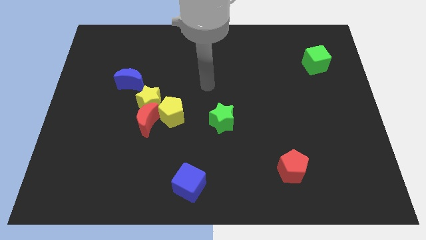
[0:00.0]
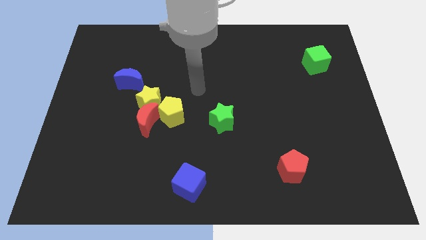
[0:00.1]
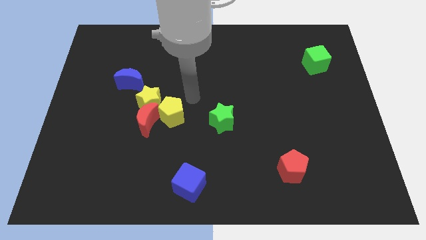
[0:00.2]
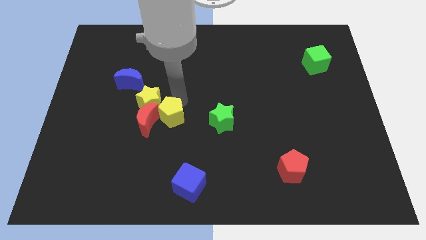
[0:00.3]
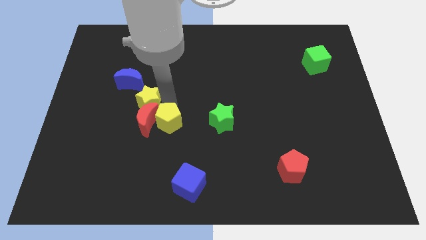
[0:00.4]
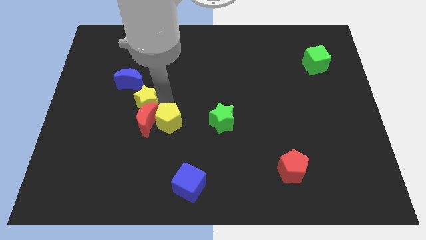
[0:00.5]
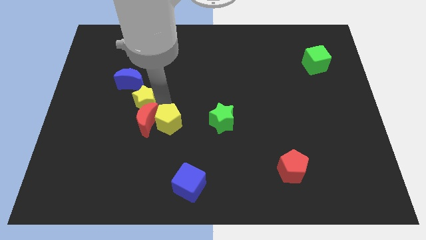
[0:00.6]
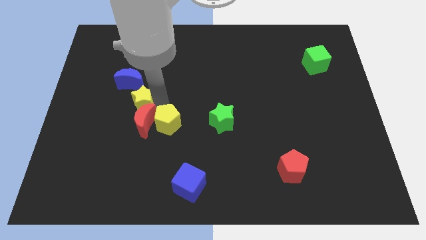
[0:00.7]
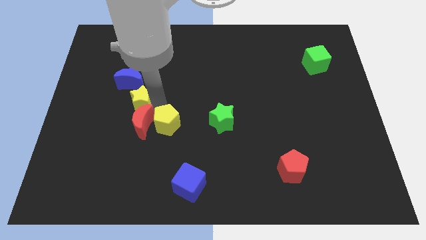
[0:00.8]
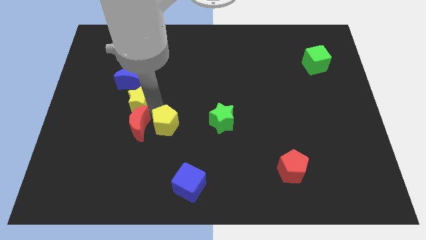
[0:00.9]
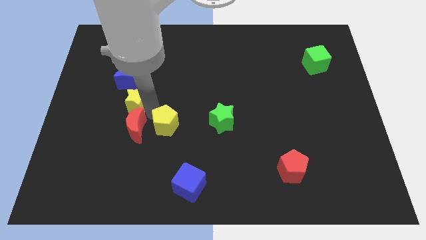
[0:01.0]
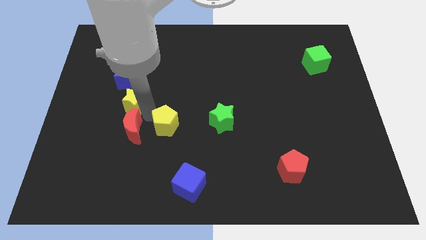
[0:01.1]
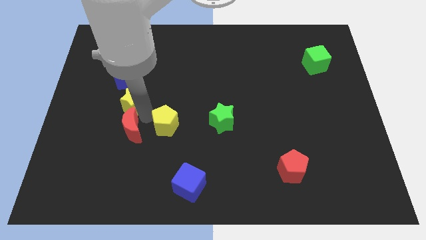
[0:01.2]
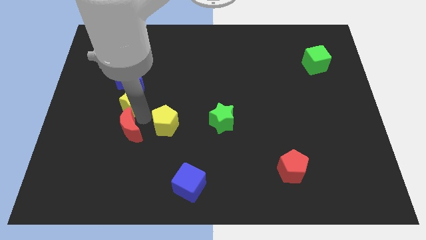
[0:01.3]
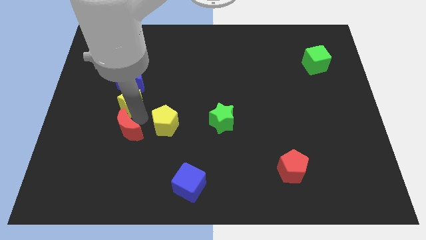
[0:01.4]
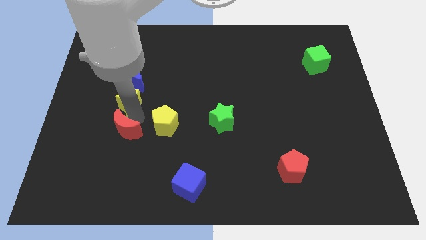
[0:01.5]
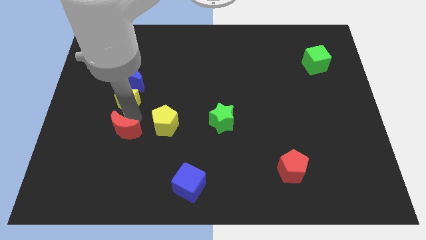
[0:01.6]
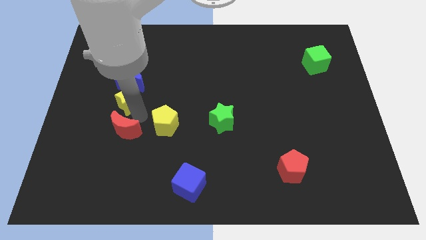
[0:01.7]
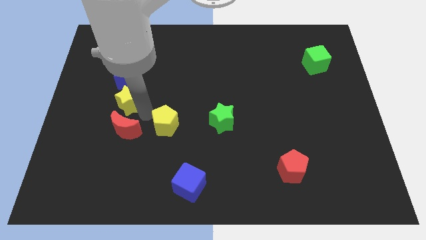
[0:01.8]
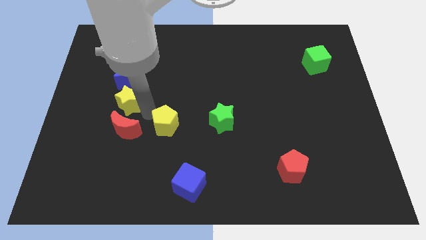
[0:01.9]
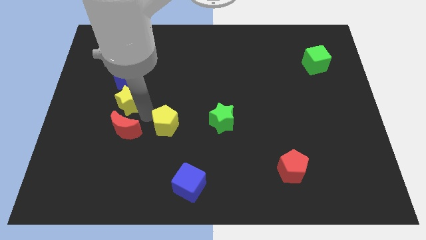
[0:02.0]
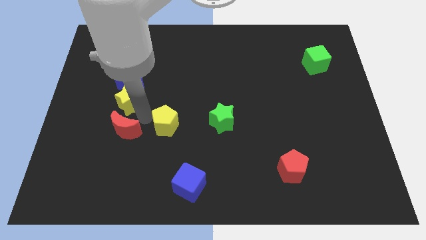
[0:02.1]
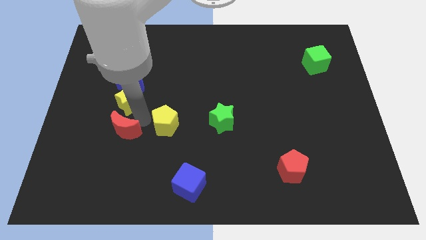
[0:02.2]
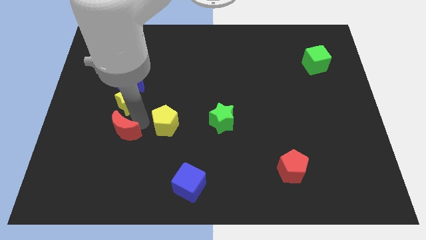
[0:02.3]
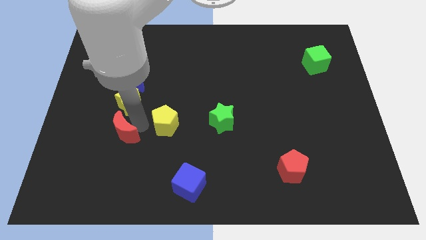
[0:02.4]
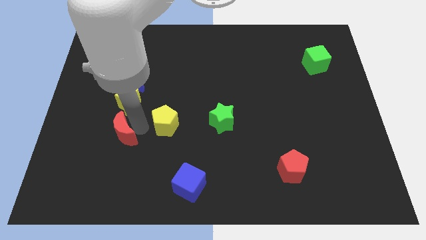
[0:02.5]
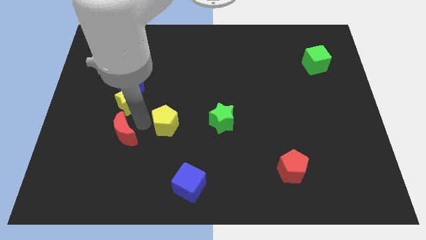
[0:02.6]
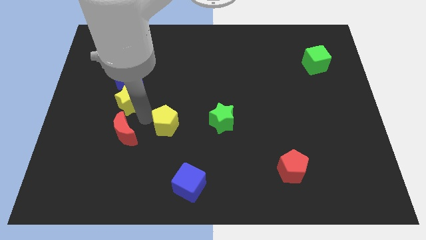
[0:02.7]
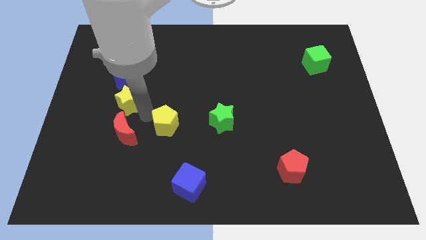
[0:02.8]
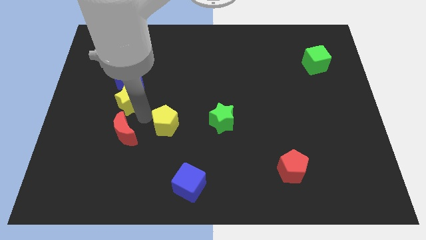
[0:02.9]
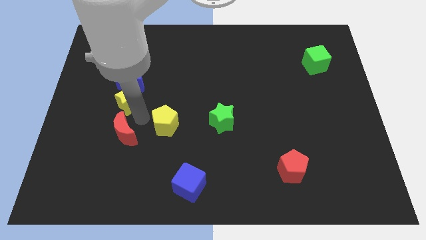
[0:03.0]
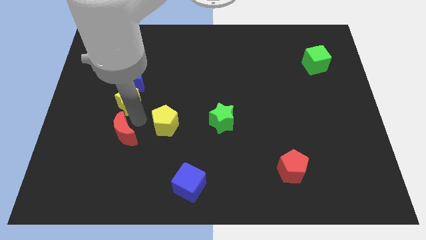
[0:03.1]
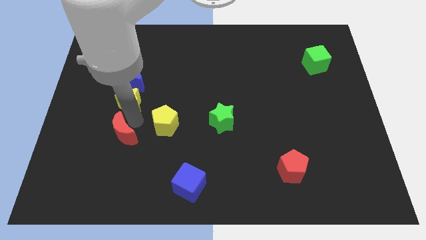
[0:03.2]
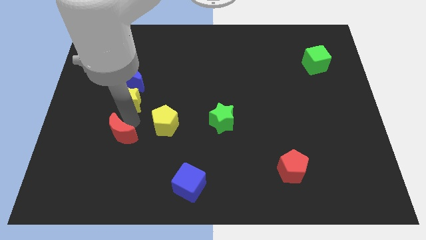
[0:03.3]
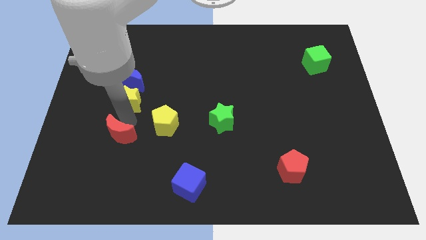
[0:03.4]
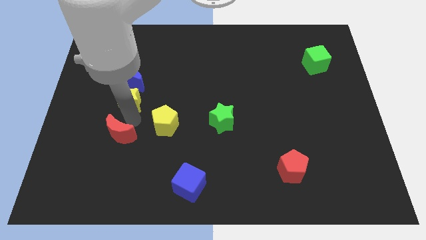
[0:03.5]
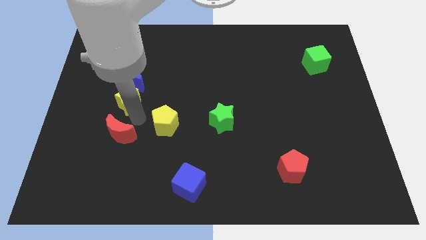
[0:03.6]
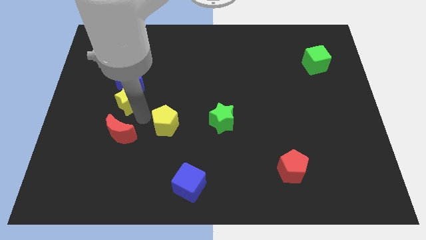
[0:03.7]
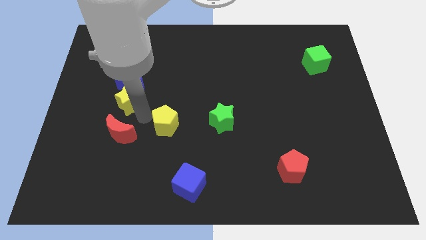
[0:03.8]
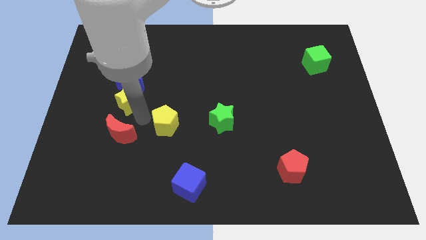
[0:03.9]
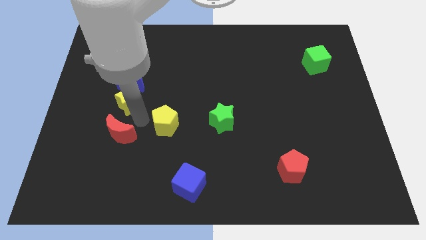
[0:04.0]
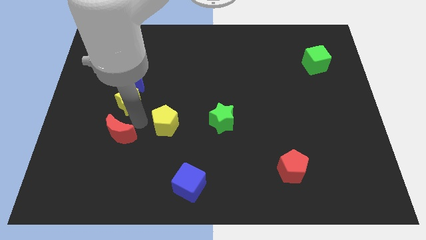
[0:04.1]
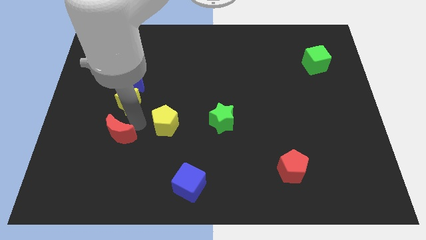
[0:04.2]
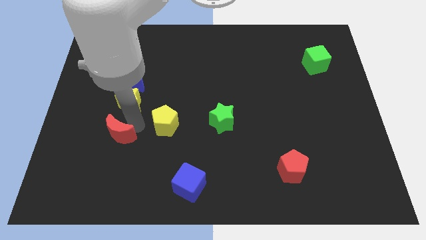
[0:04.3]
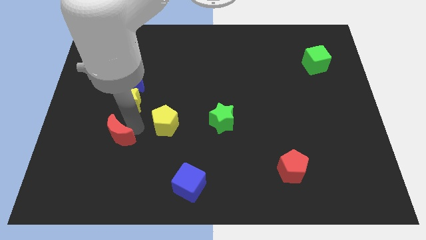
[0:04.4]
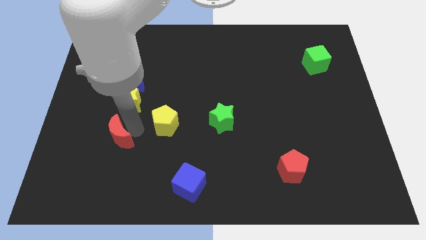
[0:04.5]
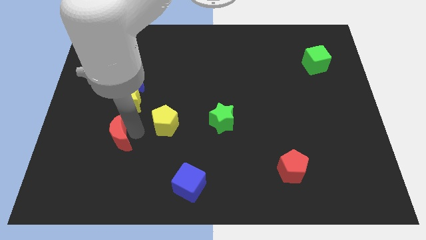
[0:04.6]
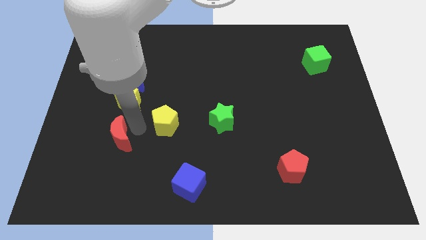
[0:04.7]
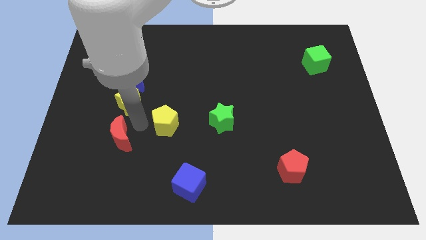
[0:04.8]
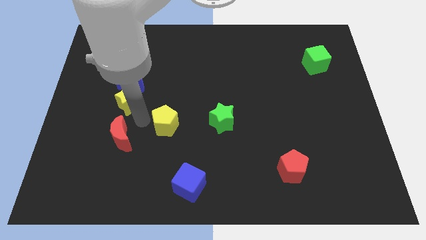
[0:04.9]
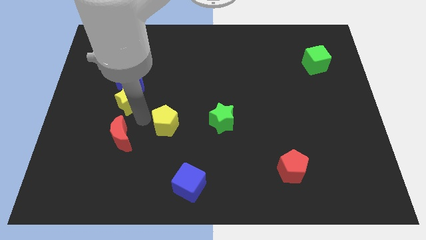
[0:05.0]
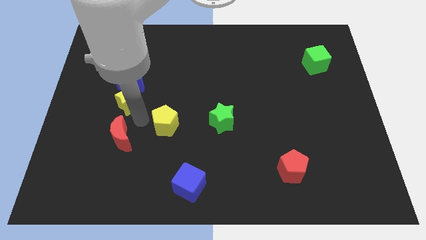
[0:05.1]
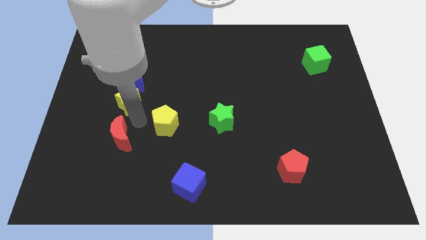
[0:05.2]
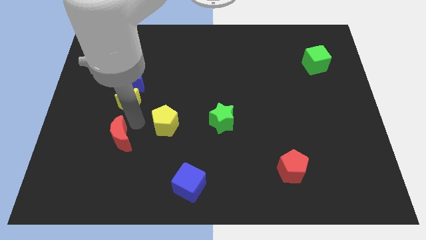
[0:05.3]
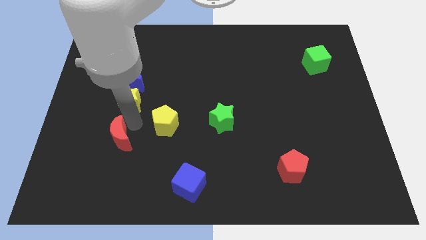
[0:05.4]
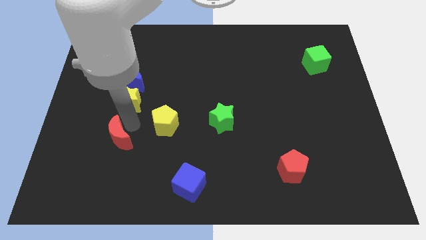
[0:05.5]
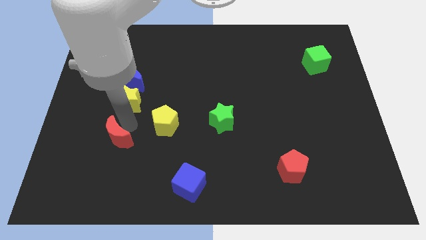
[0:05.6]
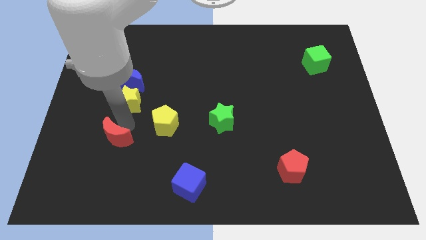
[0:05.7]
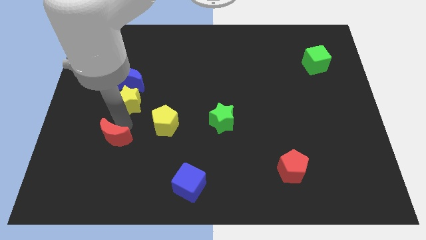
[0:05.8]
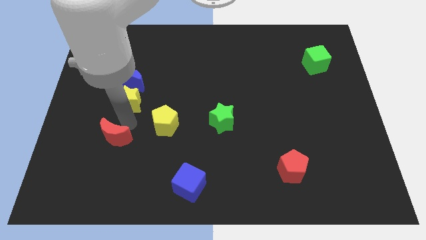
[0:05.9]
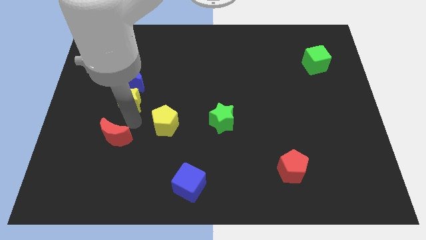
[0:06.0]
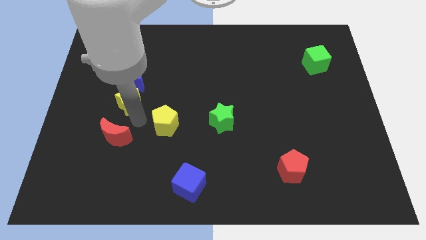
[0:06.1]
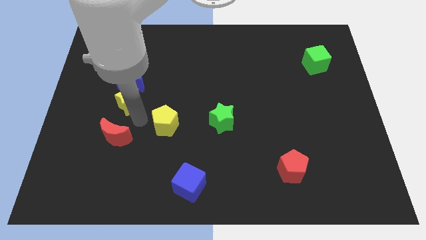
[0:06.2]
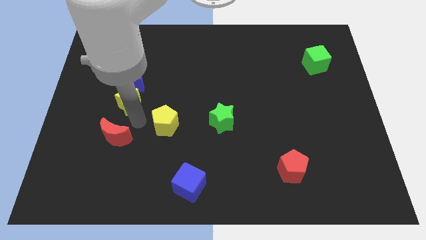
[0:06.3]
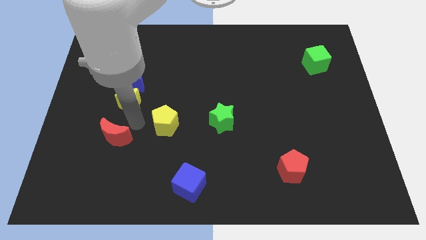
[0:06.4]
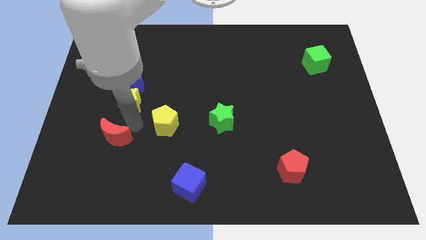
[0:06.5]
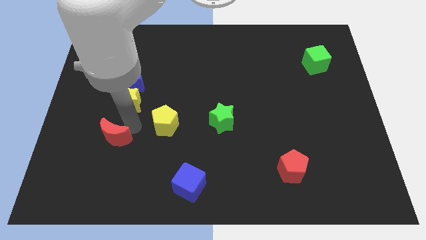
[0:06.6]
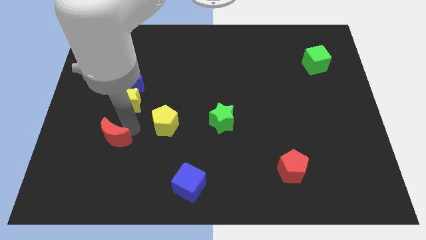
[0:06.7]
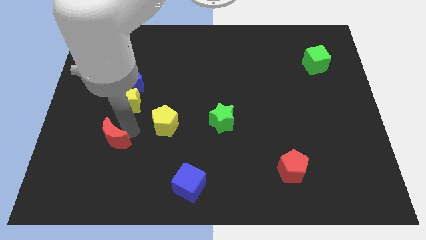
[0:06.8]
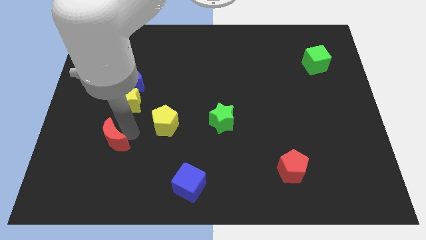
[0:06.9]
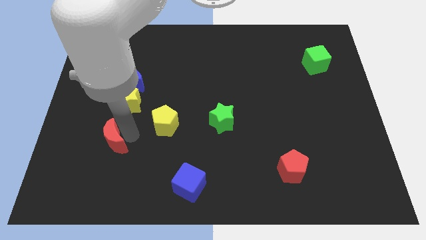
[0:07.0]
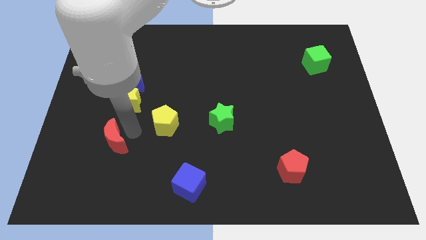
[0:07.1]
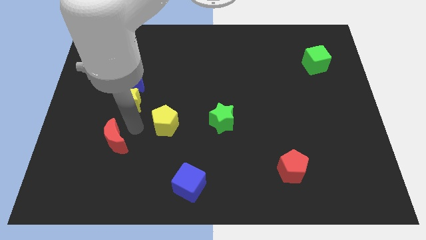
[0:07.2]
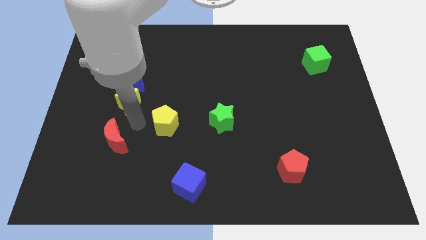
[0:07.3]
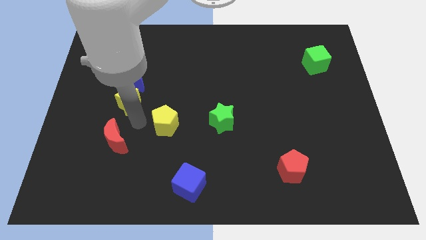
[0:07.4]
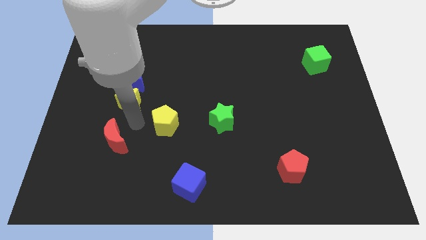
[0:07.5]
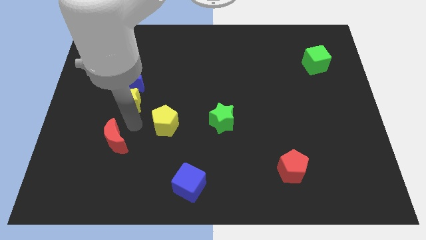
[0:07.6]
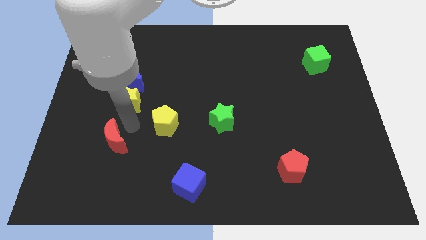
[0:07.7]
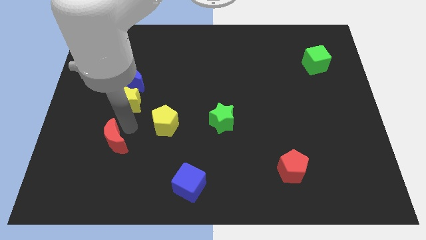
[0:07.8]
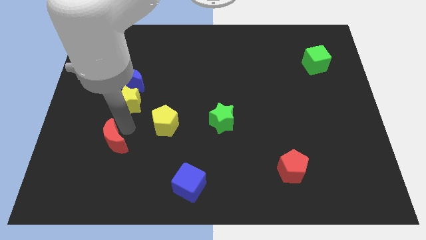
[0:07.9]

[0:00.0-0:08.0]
move the red moon away from the yellow star and yellow pentagon

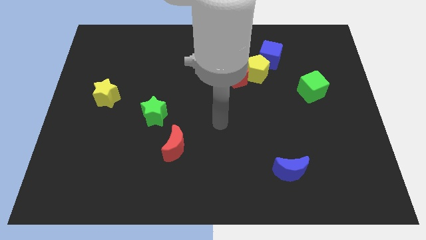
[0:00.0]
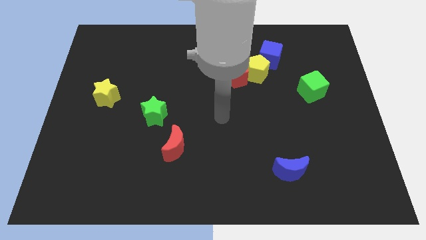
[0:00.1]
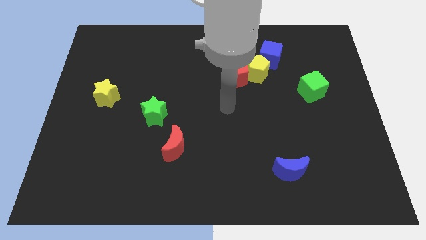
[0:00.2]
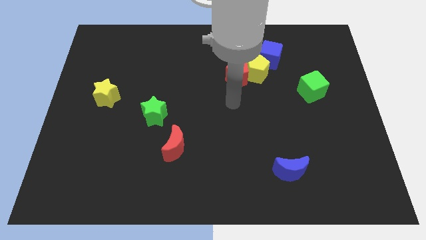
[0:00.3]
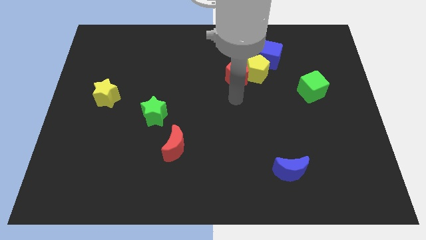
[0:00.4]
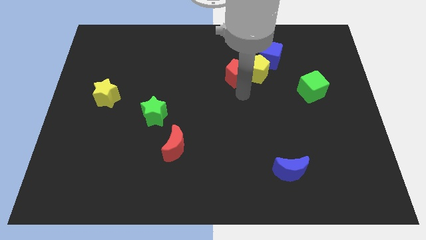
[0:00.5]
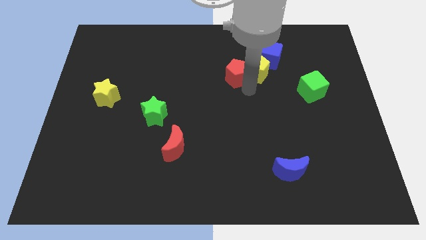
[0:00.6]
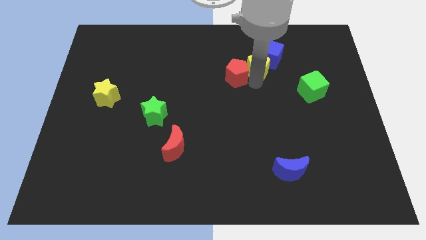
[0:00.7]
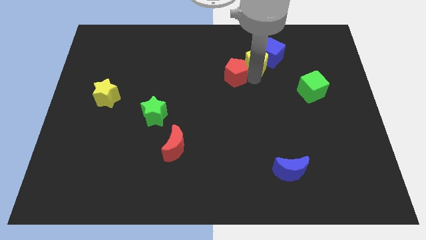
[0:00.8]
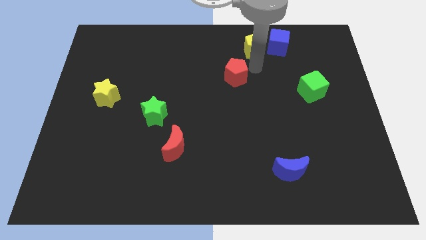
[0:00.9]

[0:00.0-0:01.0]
pull the red pentagon apart from the yellow pentagon

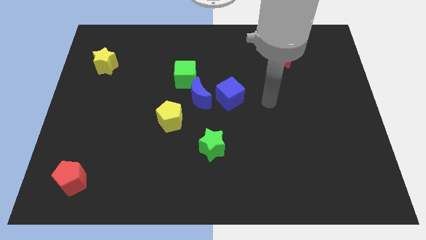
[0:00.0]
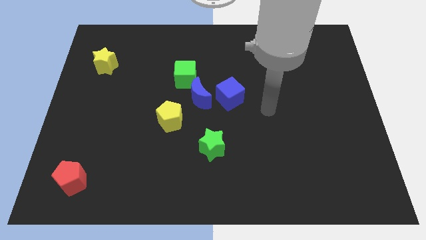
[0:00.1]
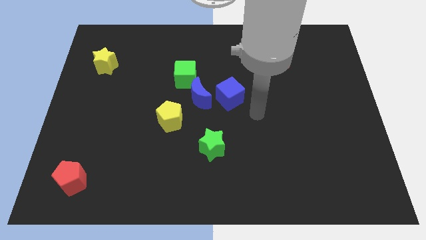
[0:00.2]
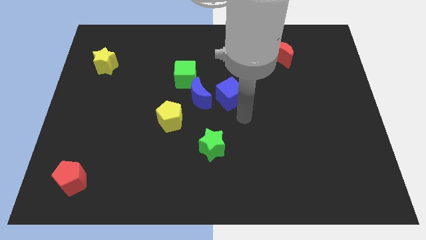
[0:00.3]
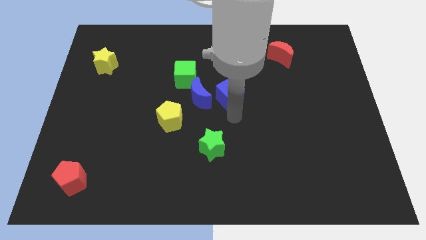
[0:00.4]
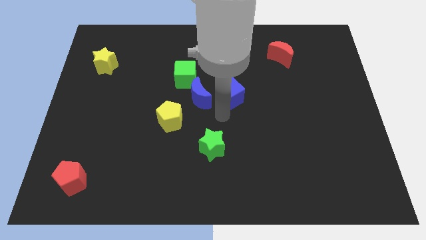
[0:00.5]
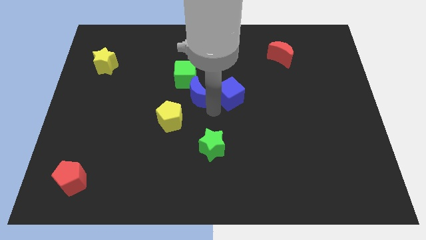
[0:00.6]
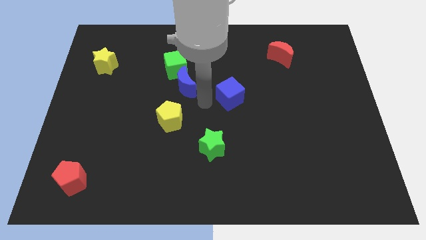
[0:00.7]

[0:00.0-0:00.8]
separate the blue cube from the blue moon
